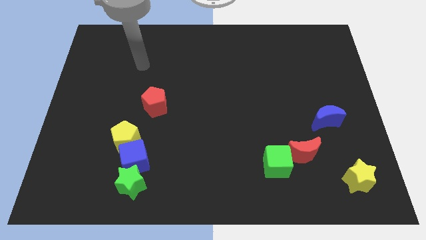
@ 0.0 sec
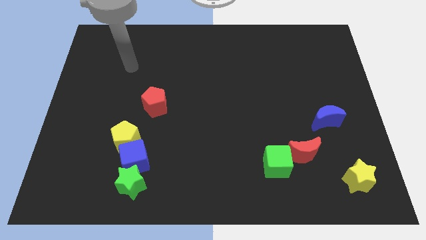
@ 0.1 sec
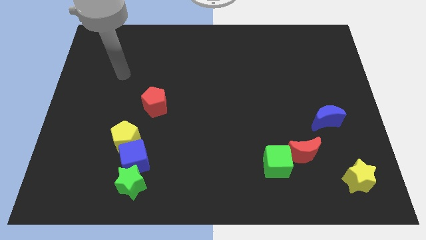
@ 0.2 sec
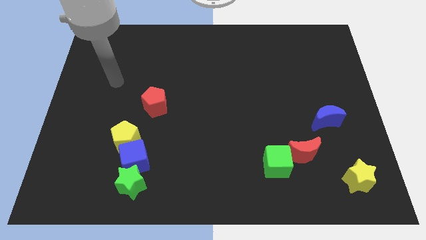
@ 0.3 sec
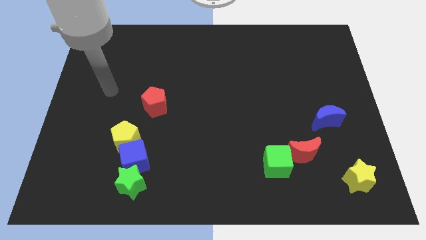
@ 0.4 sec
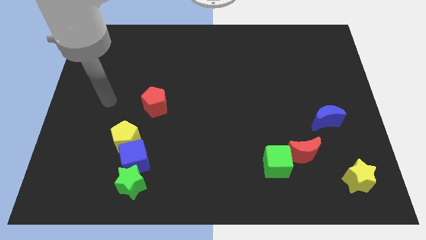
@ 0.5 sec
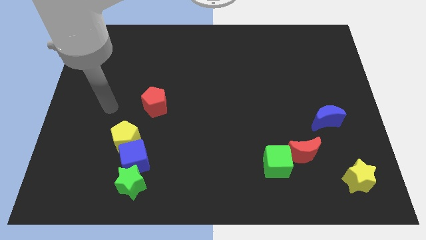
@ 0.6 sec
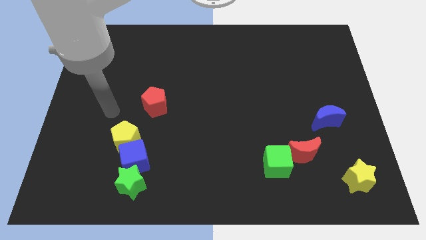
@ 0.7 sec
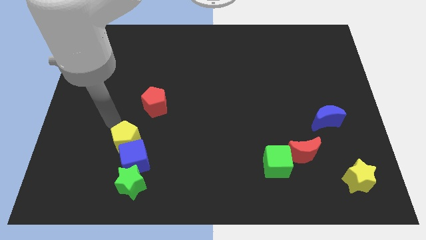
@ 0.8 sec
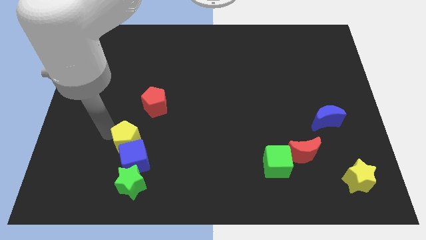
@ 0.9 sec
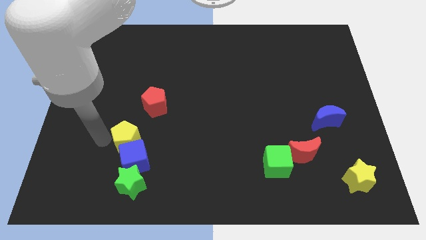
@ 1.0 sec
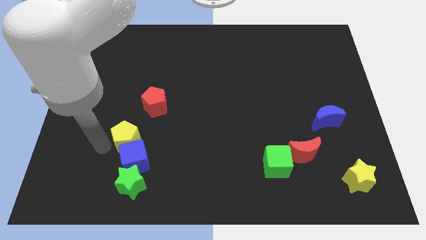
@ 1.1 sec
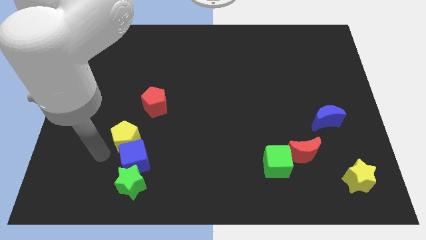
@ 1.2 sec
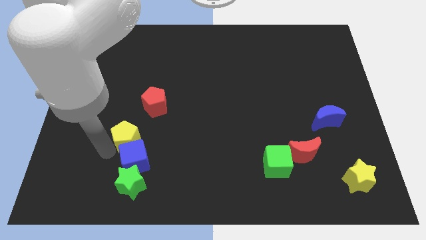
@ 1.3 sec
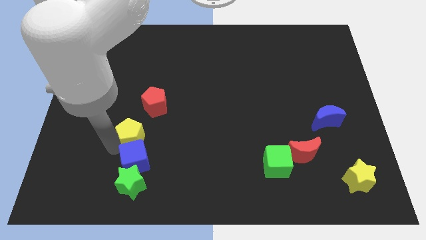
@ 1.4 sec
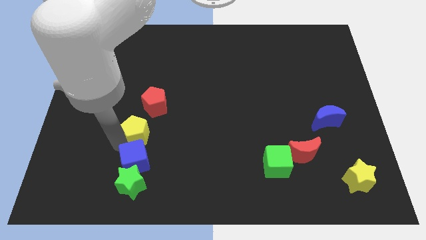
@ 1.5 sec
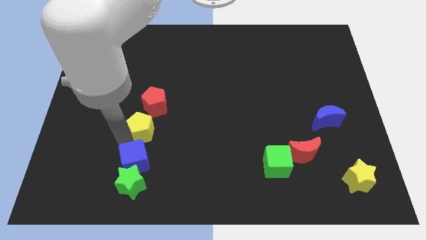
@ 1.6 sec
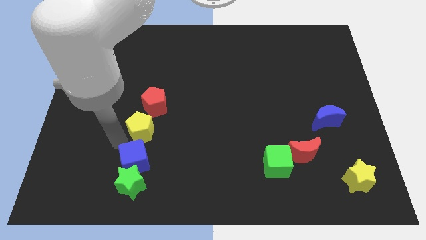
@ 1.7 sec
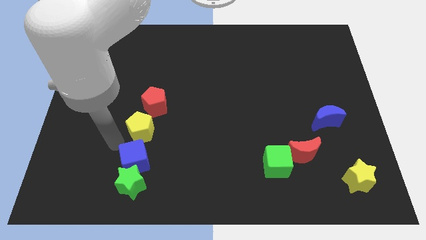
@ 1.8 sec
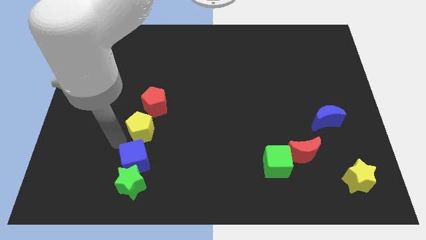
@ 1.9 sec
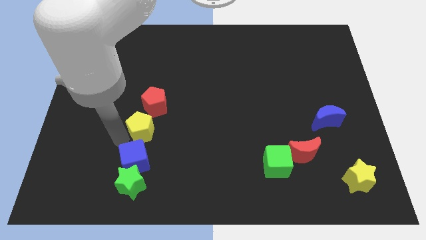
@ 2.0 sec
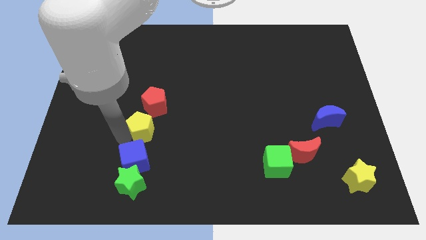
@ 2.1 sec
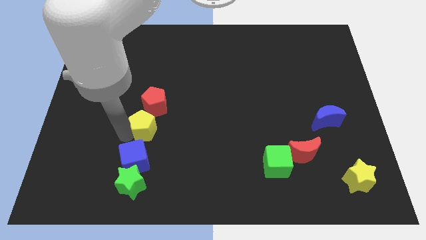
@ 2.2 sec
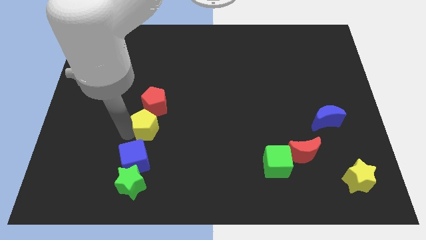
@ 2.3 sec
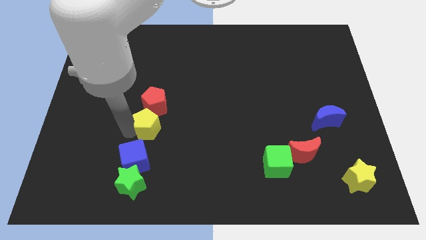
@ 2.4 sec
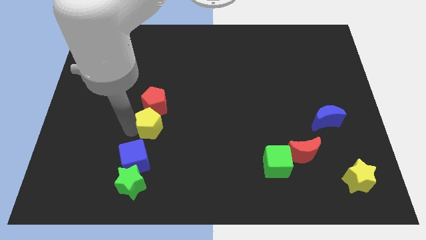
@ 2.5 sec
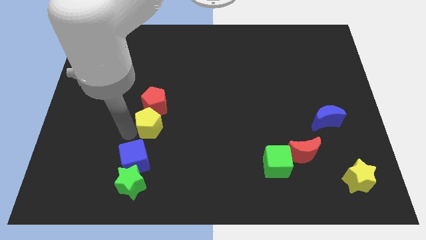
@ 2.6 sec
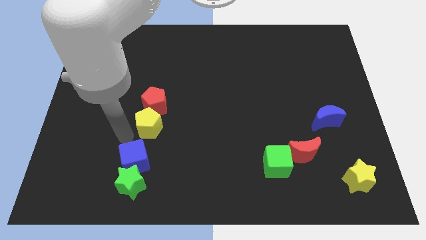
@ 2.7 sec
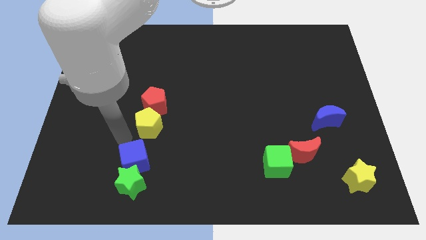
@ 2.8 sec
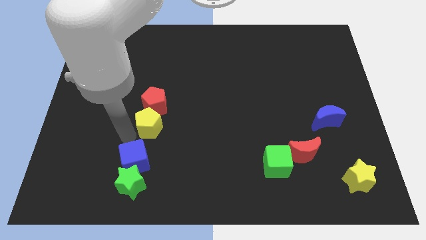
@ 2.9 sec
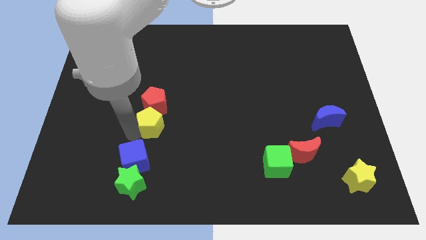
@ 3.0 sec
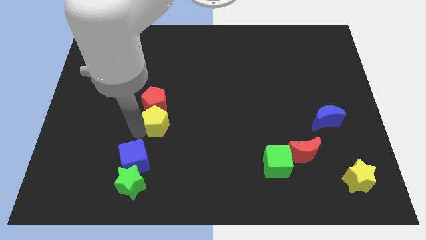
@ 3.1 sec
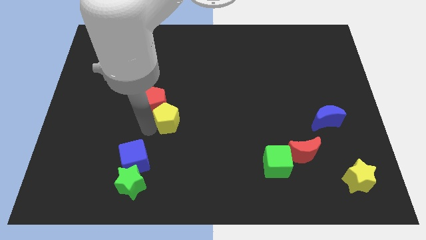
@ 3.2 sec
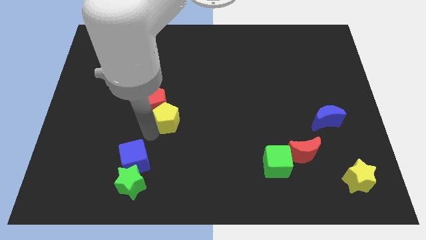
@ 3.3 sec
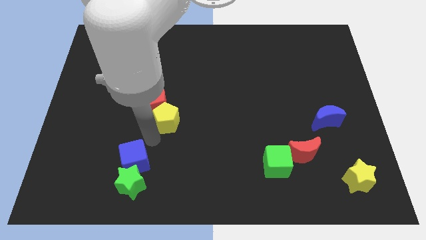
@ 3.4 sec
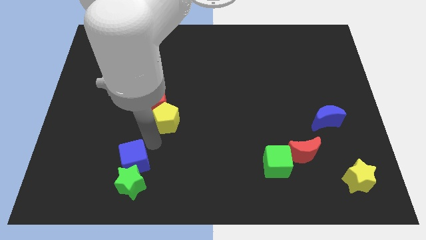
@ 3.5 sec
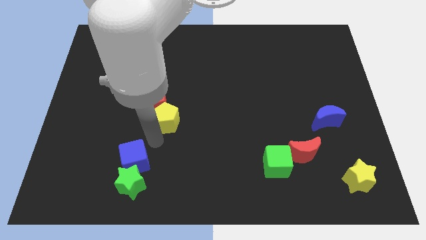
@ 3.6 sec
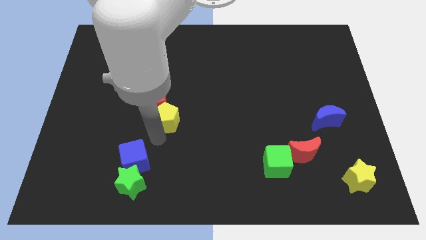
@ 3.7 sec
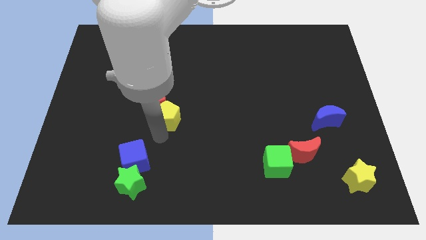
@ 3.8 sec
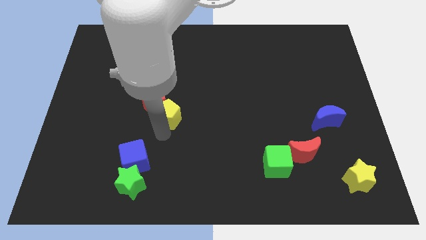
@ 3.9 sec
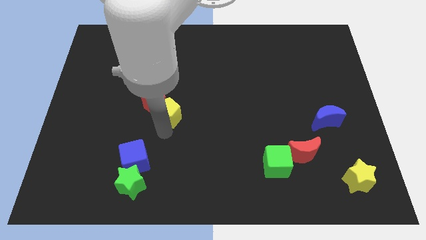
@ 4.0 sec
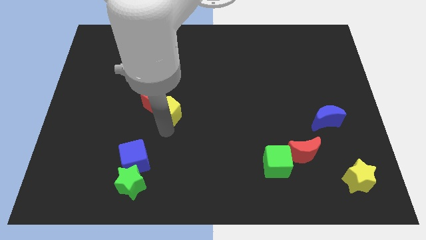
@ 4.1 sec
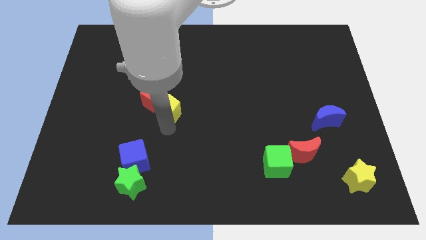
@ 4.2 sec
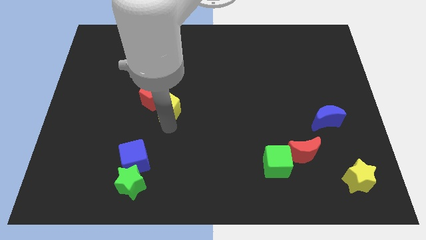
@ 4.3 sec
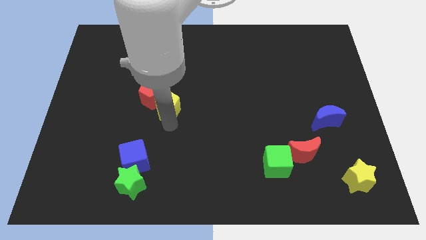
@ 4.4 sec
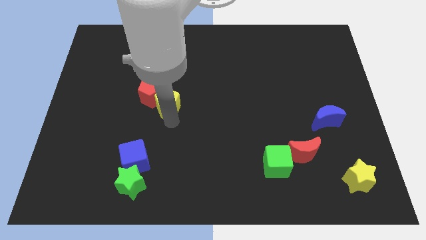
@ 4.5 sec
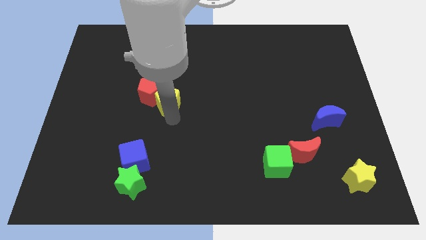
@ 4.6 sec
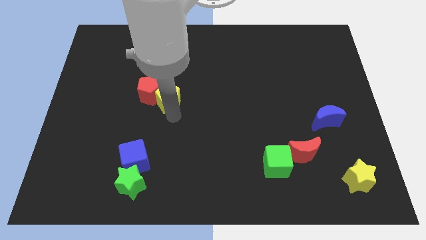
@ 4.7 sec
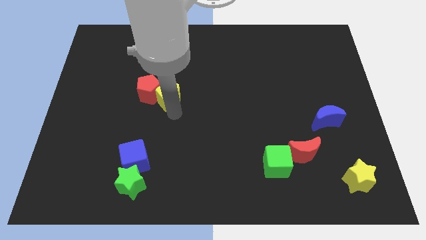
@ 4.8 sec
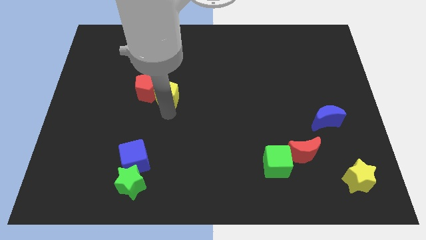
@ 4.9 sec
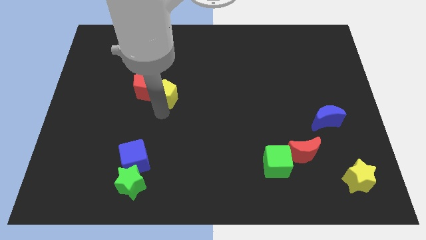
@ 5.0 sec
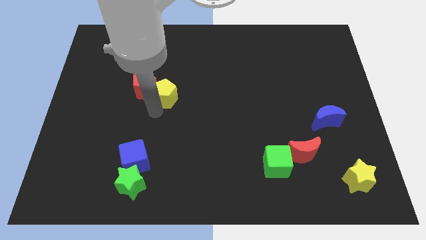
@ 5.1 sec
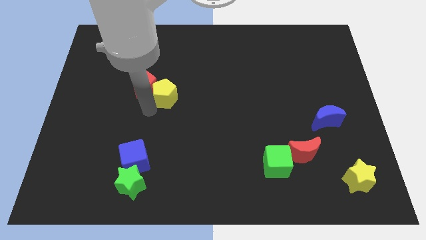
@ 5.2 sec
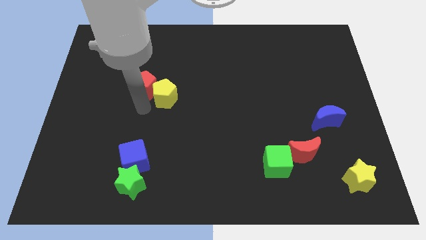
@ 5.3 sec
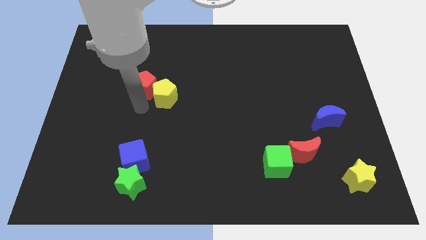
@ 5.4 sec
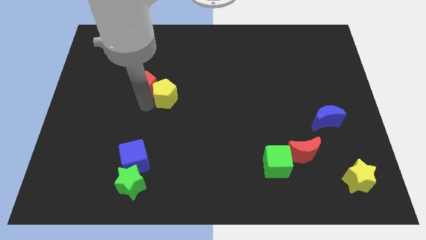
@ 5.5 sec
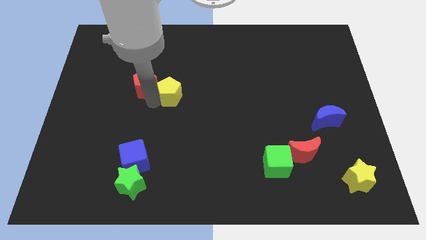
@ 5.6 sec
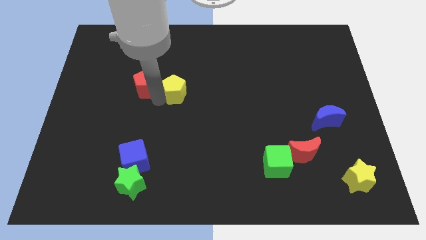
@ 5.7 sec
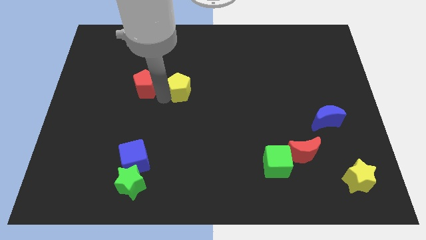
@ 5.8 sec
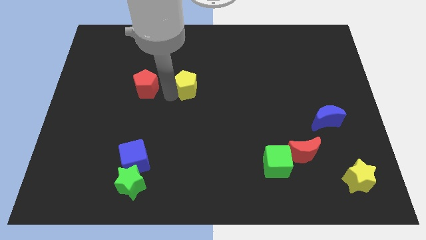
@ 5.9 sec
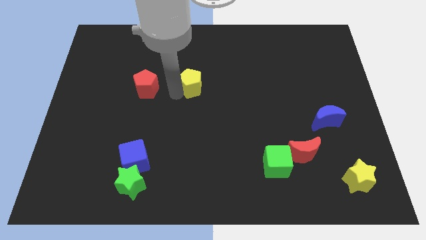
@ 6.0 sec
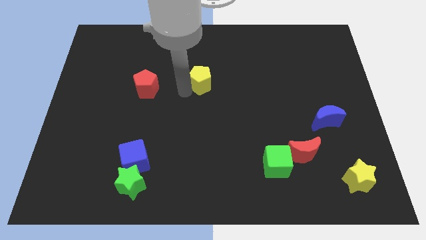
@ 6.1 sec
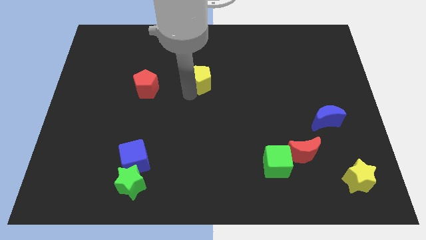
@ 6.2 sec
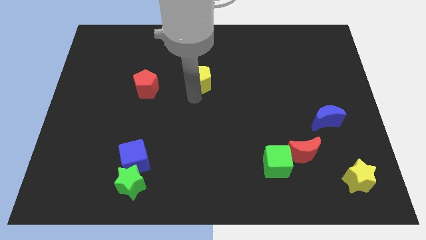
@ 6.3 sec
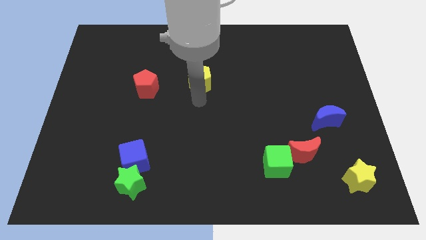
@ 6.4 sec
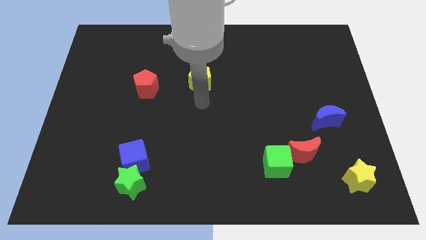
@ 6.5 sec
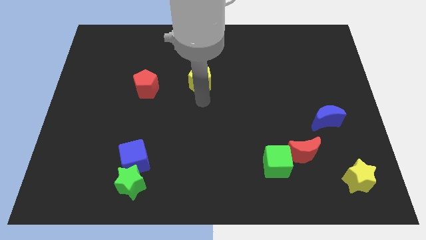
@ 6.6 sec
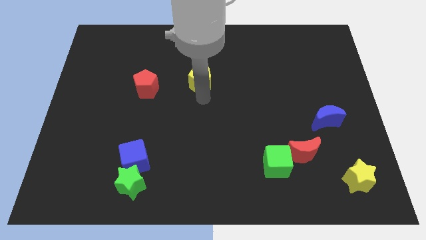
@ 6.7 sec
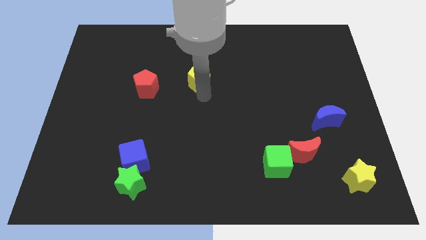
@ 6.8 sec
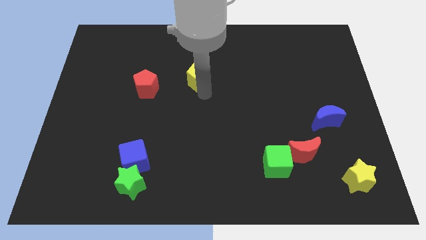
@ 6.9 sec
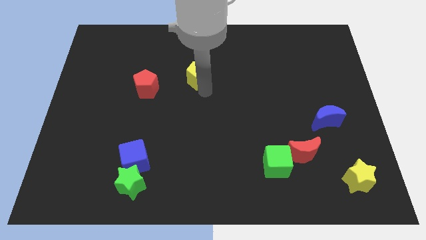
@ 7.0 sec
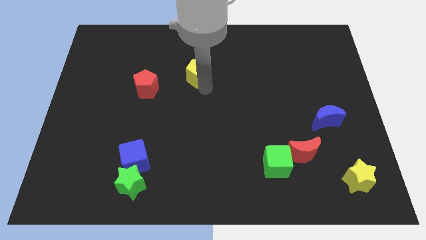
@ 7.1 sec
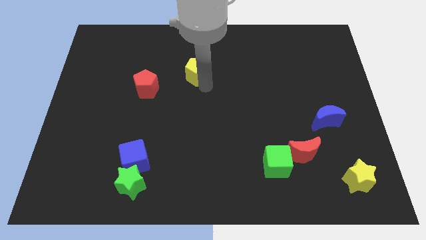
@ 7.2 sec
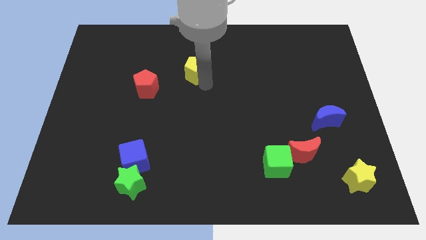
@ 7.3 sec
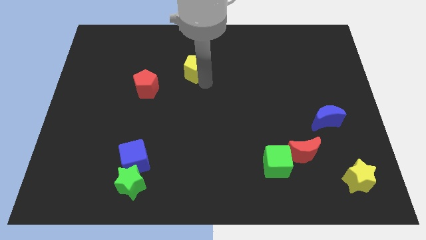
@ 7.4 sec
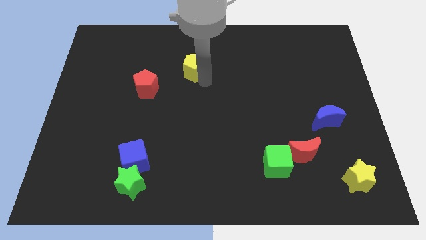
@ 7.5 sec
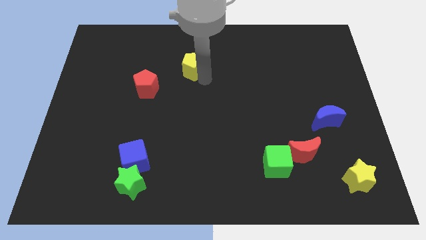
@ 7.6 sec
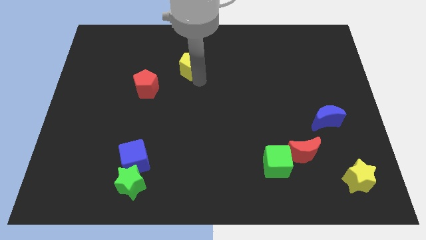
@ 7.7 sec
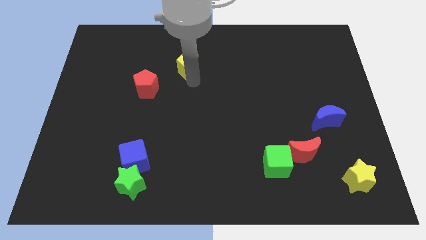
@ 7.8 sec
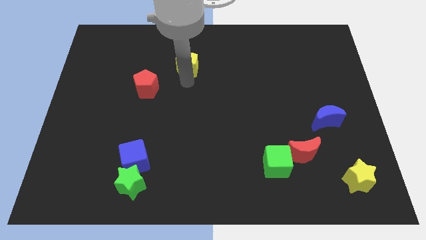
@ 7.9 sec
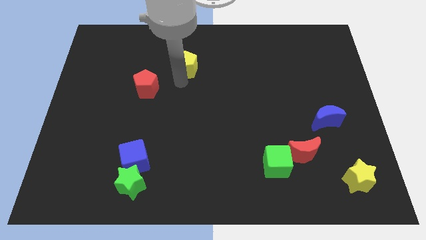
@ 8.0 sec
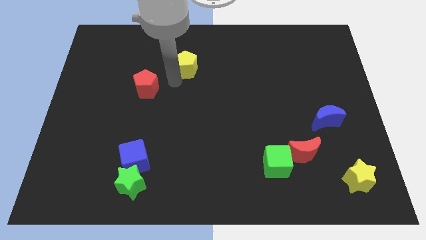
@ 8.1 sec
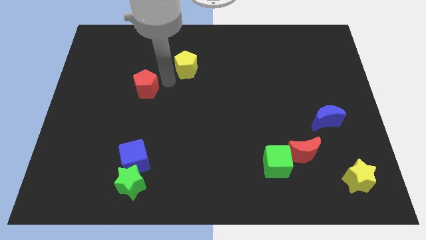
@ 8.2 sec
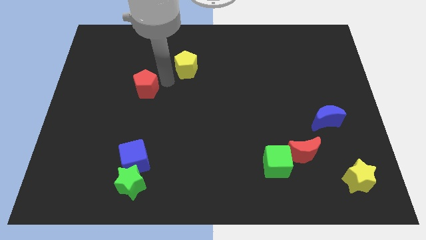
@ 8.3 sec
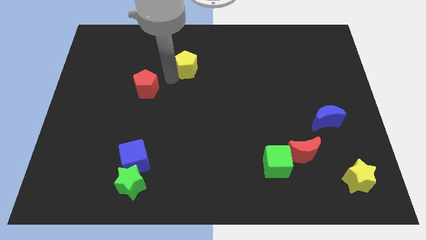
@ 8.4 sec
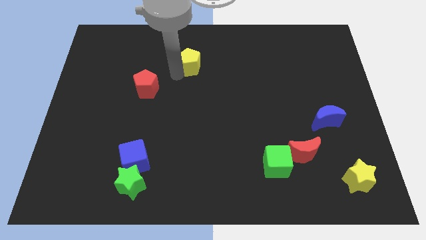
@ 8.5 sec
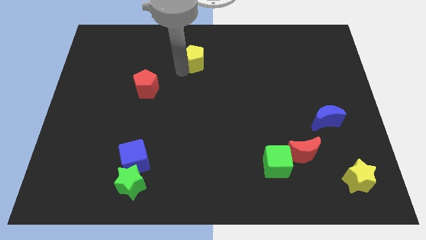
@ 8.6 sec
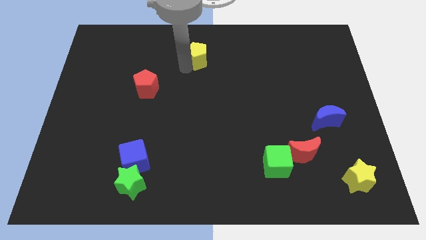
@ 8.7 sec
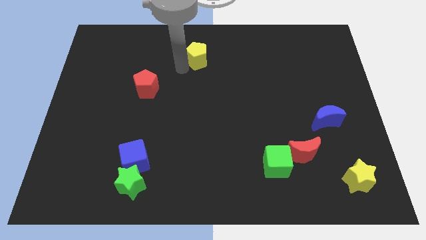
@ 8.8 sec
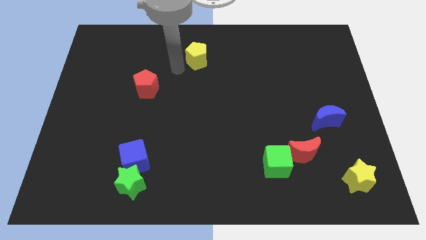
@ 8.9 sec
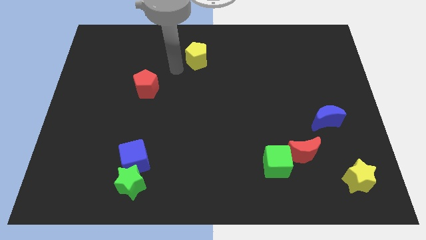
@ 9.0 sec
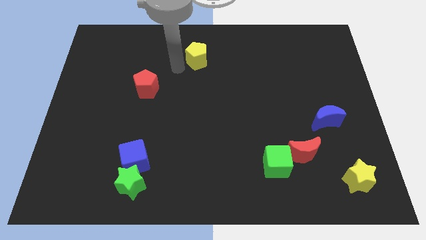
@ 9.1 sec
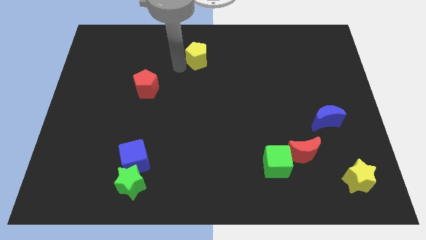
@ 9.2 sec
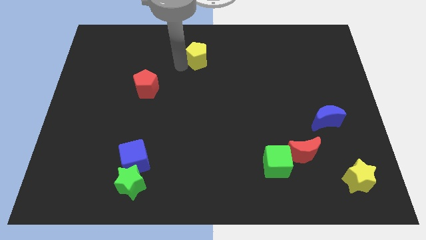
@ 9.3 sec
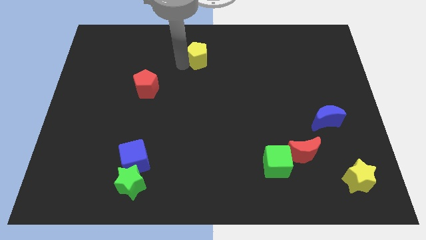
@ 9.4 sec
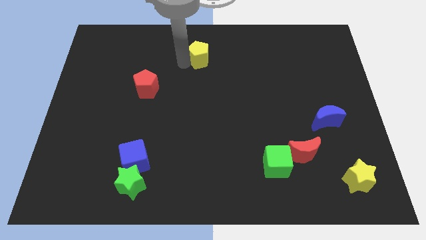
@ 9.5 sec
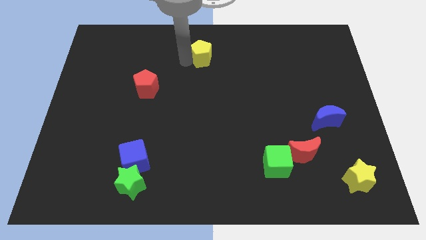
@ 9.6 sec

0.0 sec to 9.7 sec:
slide the yellow pentagon to the top
